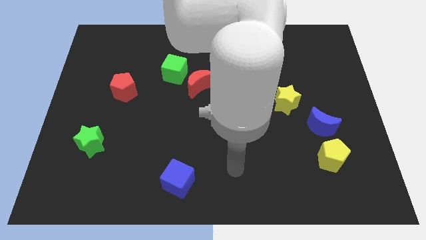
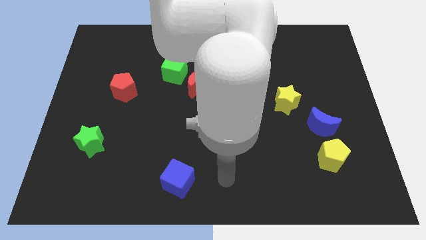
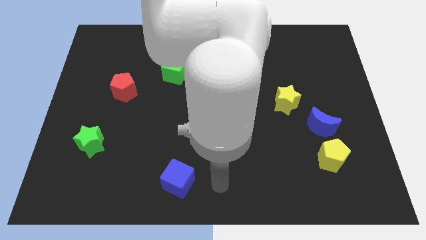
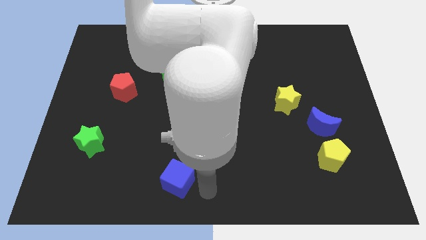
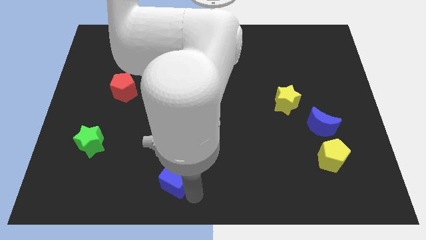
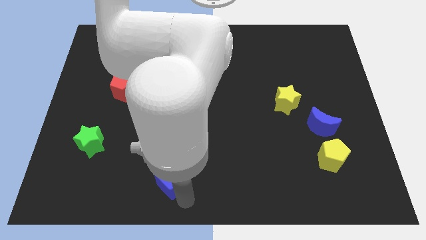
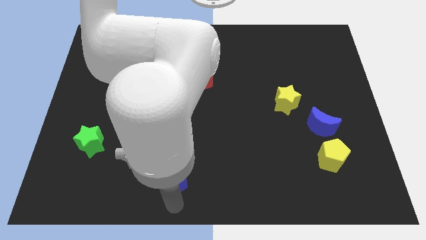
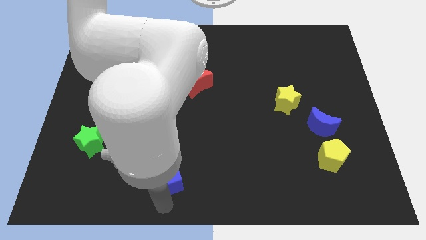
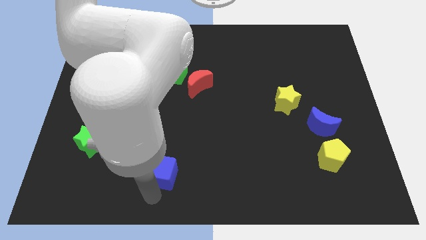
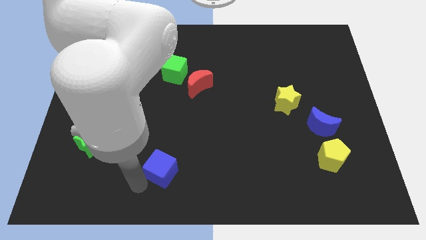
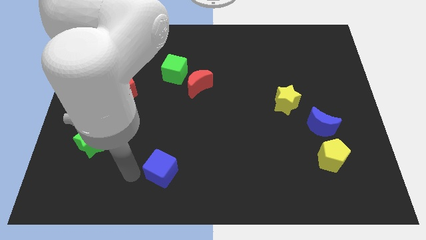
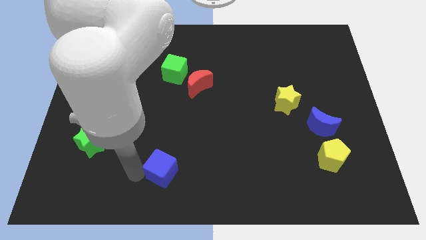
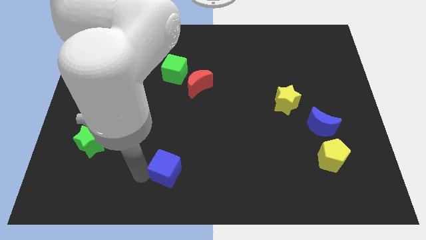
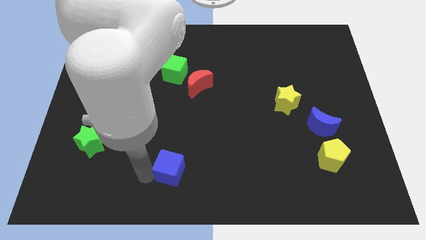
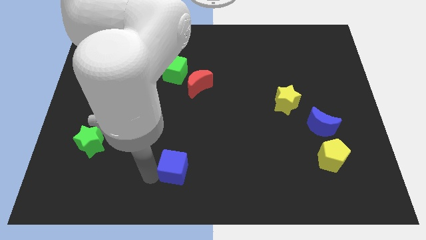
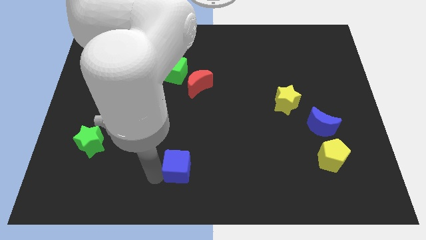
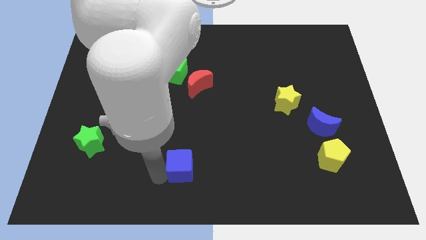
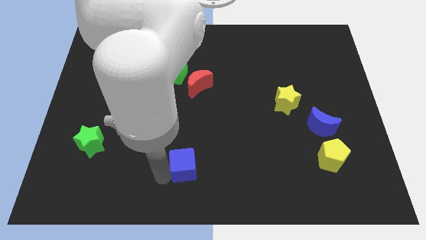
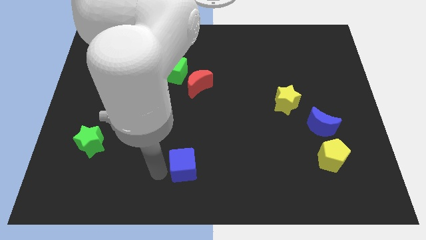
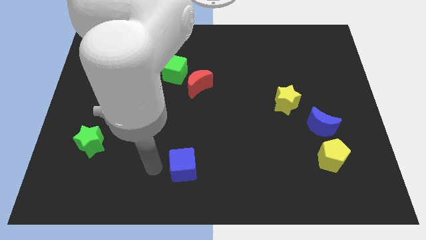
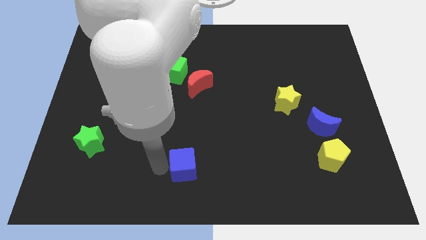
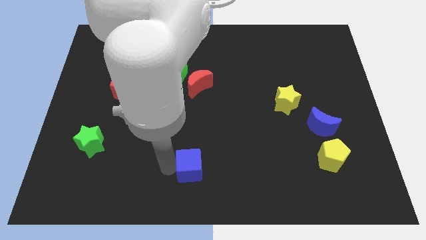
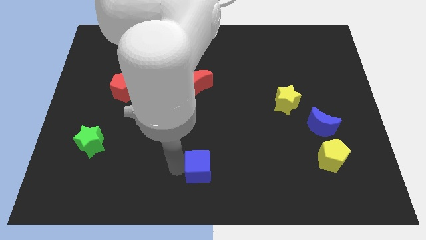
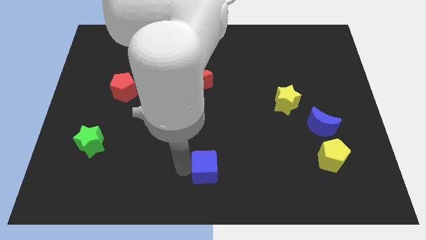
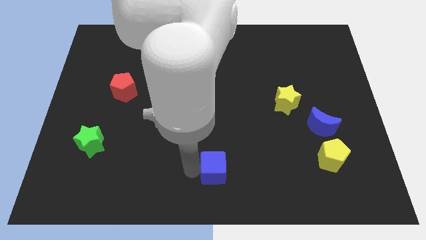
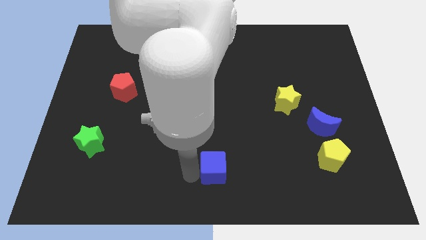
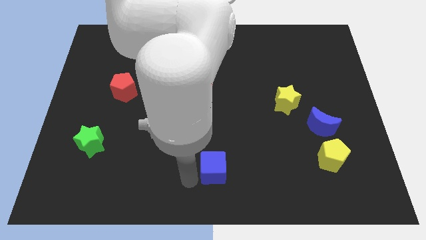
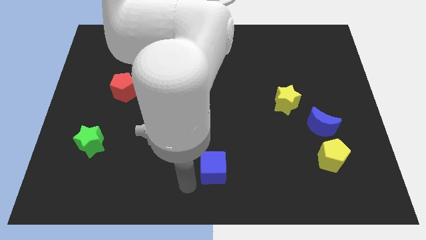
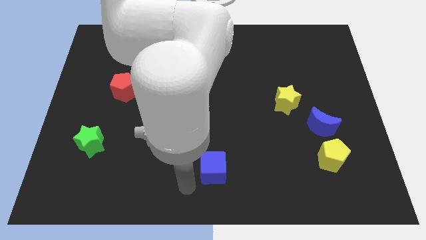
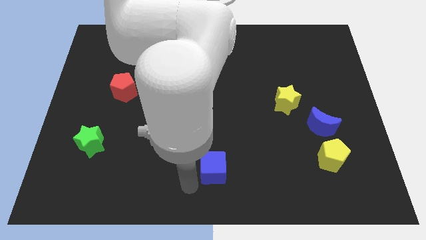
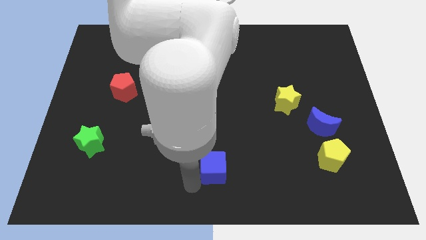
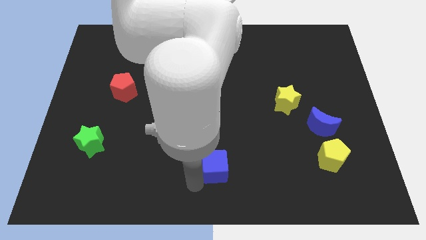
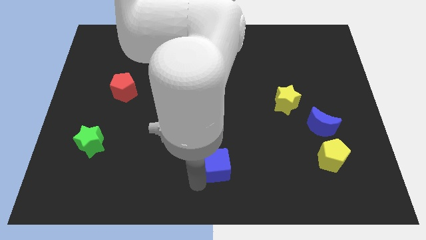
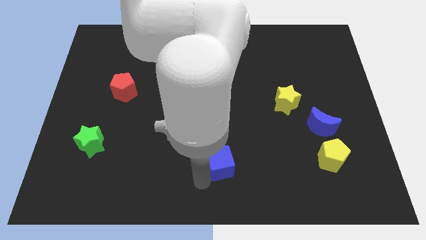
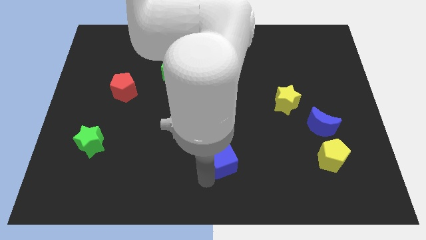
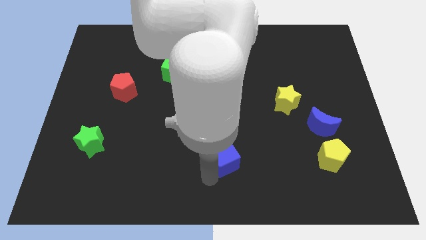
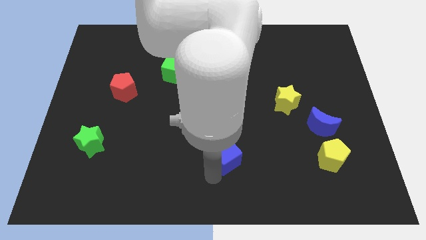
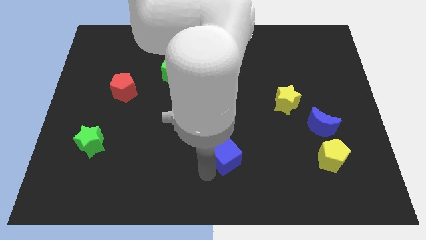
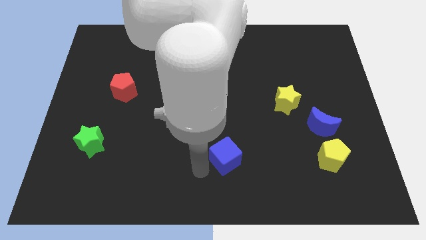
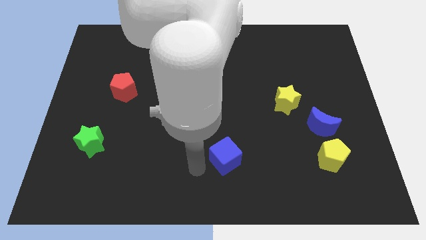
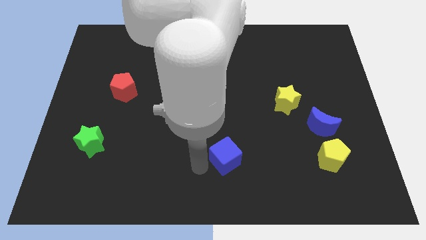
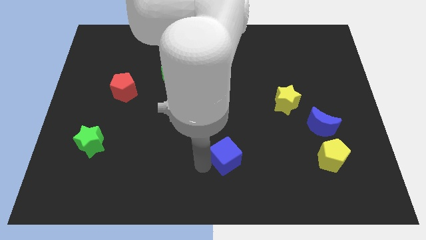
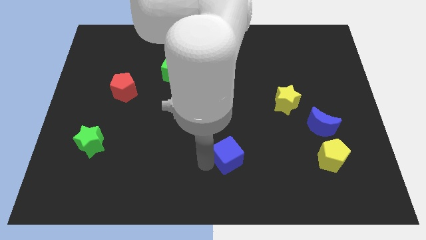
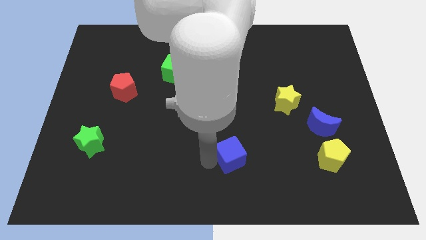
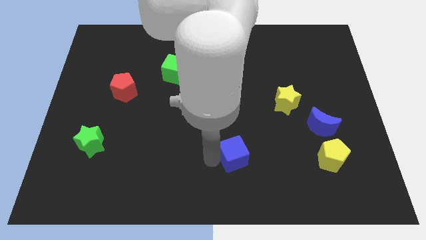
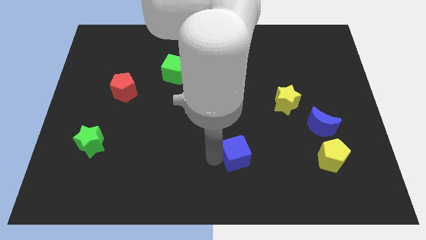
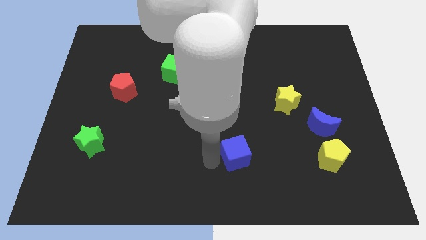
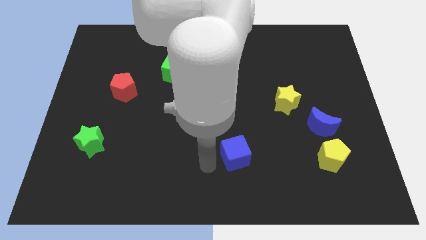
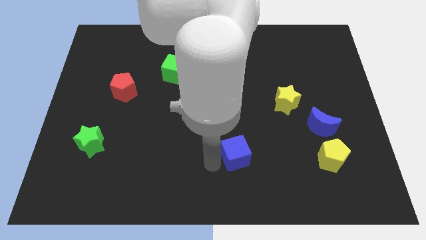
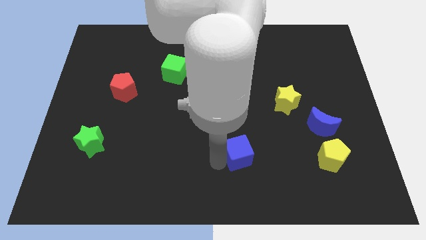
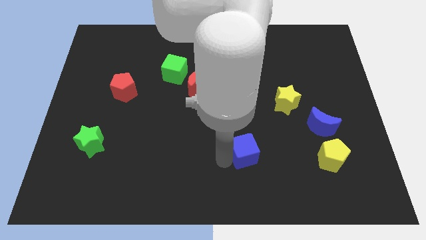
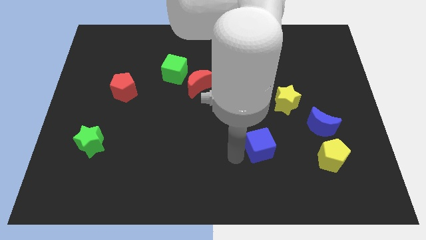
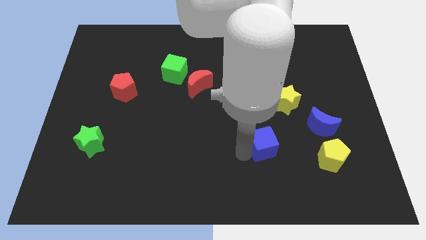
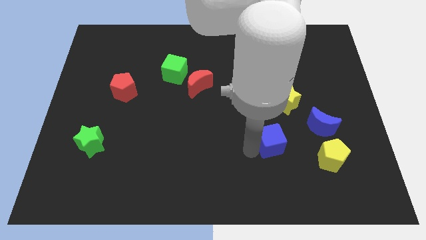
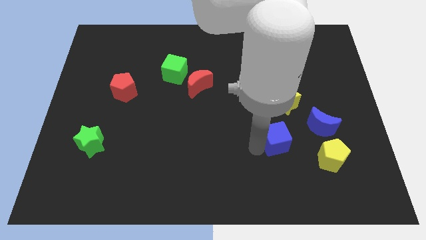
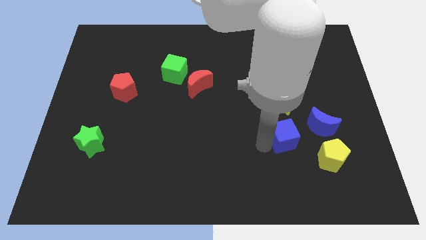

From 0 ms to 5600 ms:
move the blue cube to the top left side of the yellow pentagon

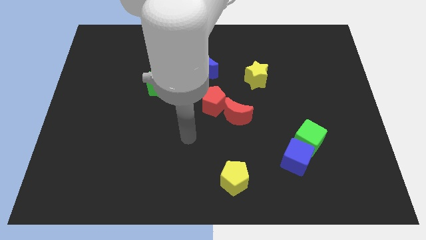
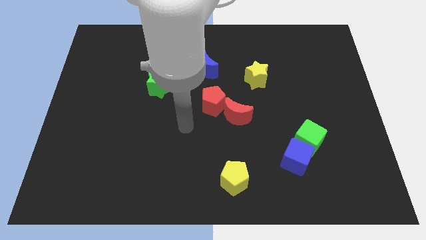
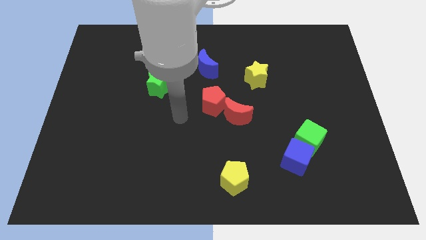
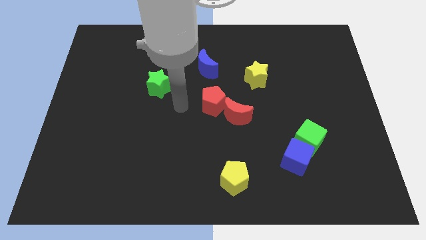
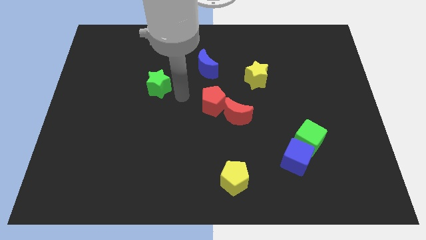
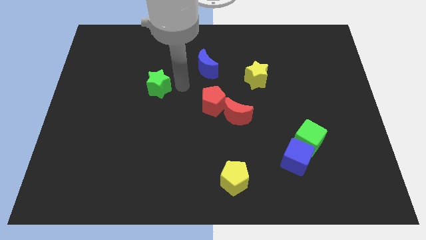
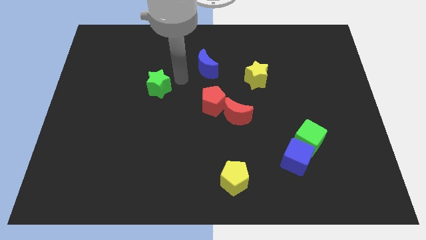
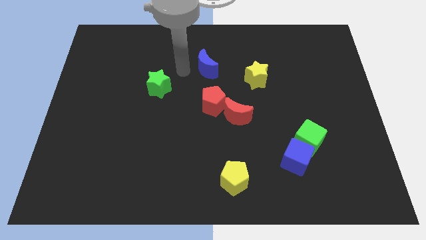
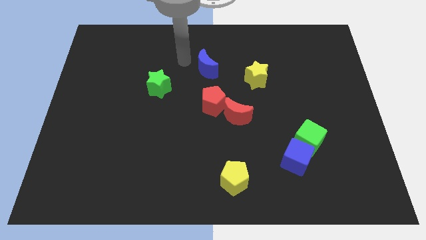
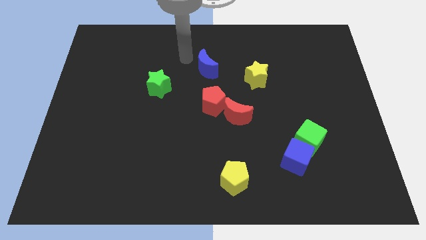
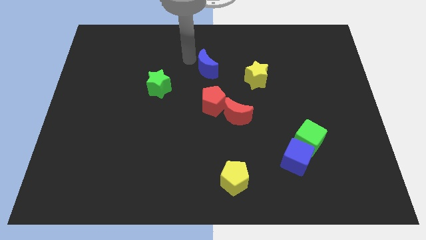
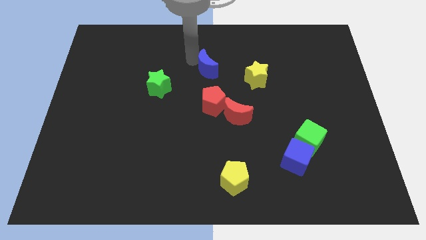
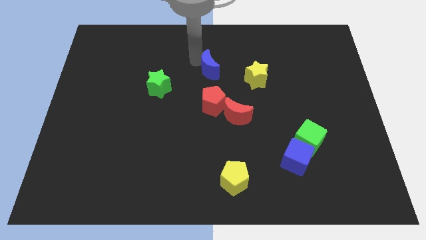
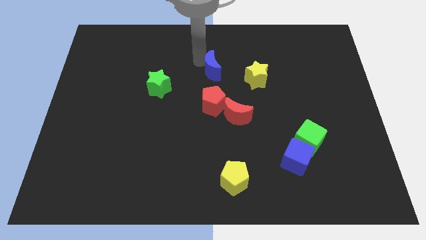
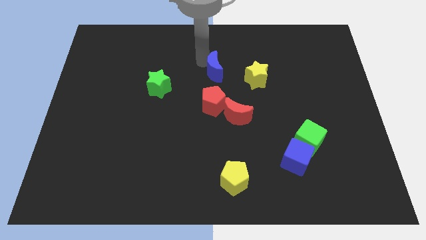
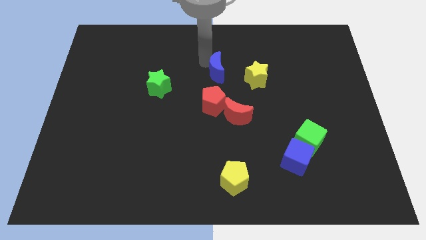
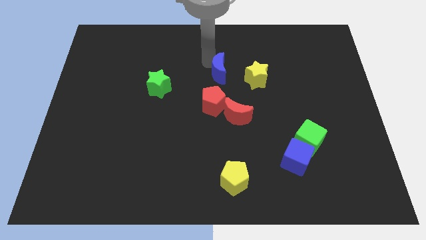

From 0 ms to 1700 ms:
move the blue moon above the red moon
